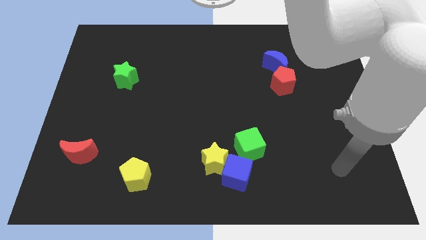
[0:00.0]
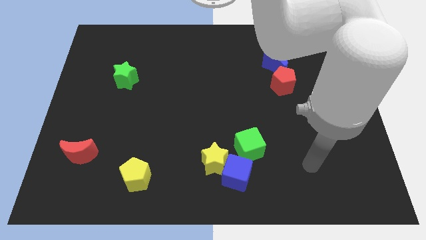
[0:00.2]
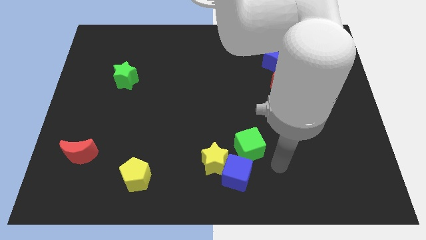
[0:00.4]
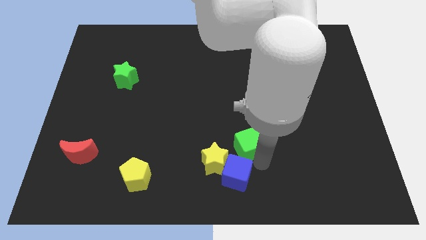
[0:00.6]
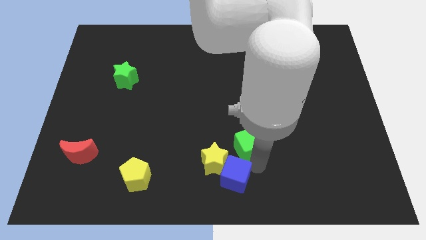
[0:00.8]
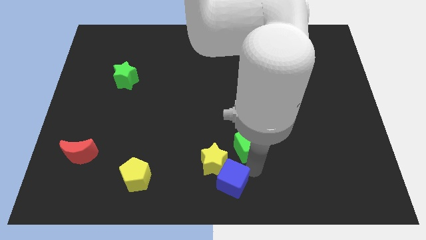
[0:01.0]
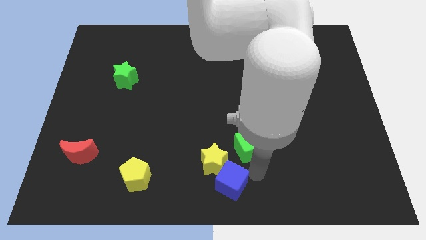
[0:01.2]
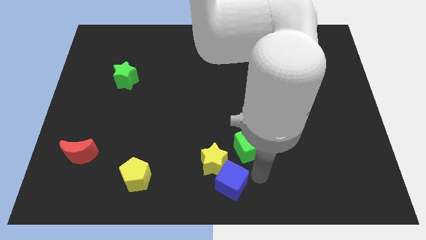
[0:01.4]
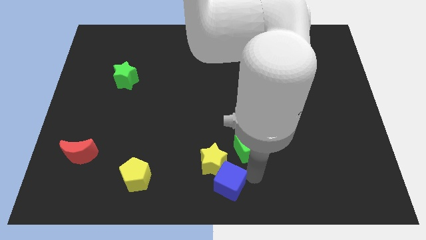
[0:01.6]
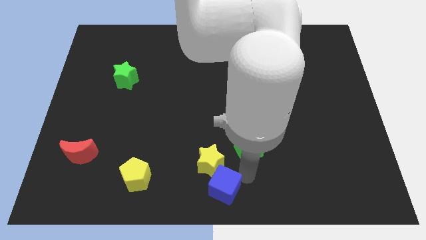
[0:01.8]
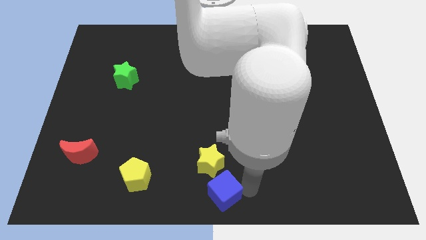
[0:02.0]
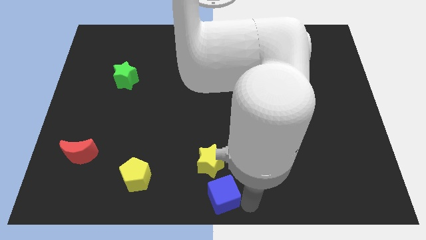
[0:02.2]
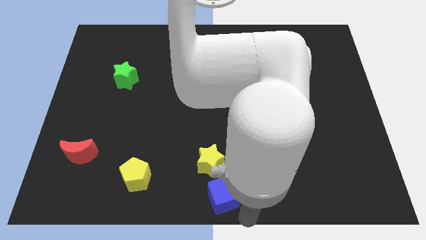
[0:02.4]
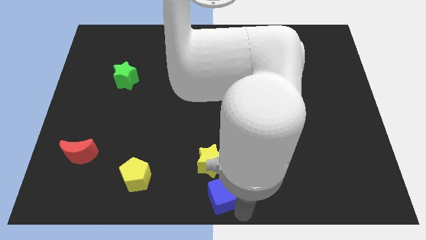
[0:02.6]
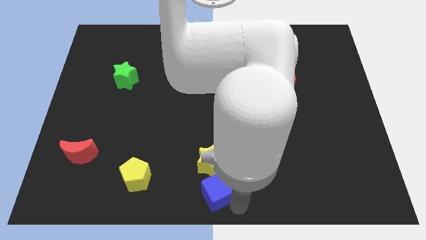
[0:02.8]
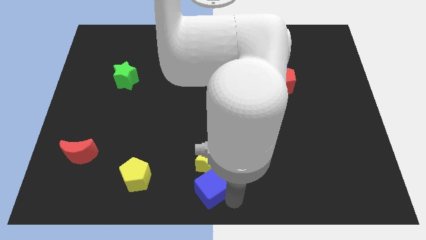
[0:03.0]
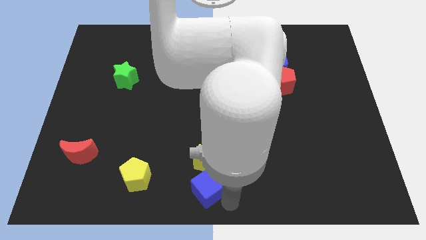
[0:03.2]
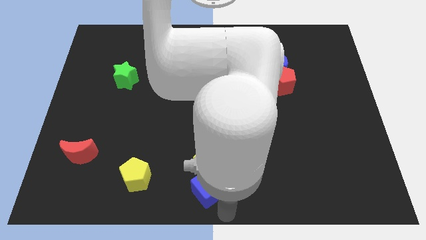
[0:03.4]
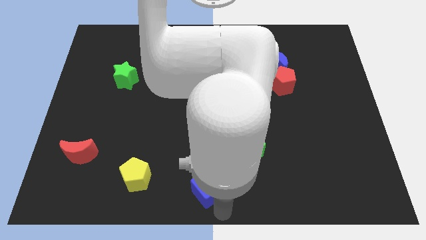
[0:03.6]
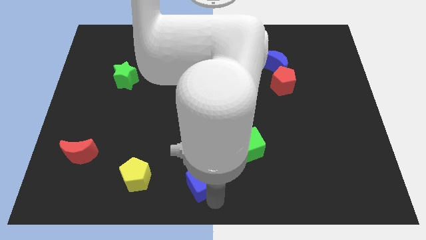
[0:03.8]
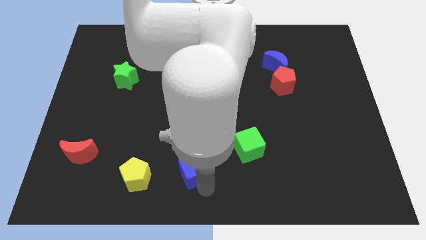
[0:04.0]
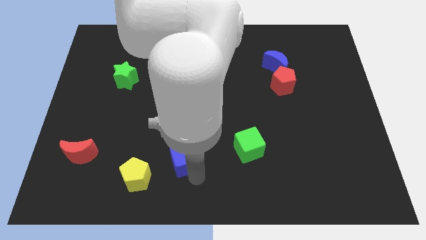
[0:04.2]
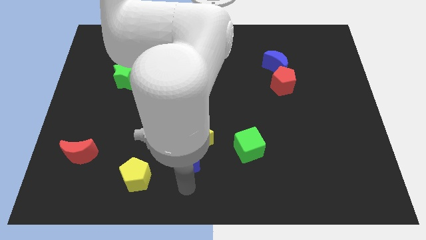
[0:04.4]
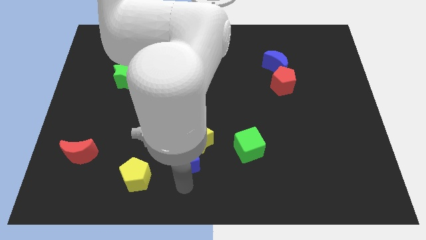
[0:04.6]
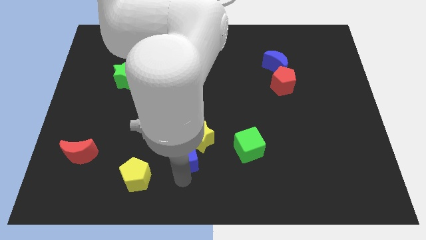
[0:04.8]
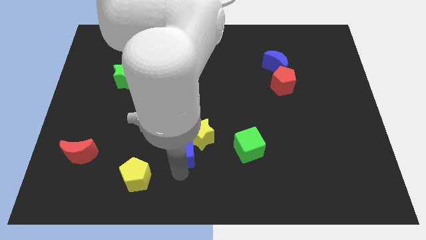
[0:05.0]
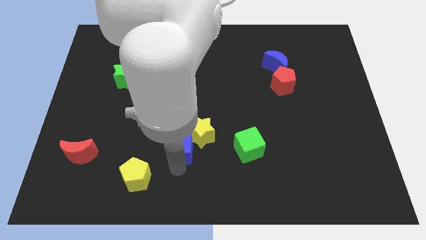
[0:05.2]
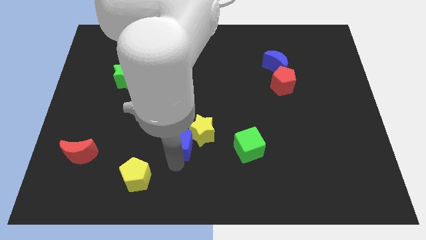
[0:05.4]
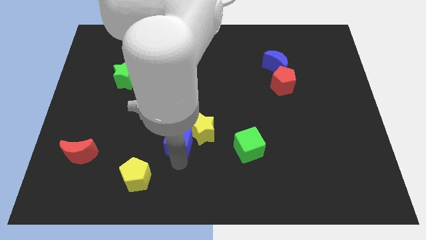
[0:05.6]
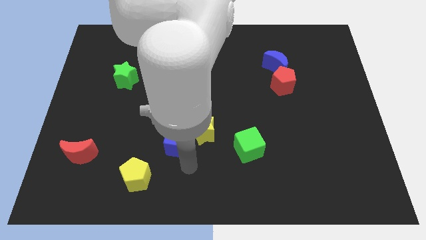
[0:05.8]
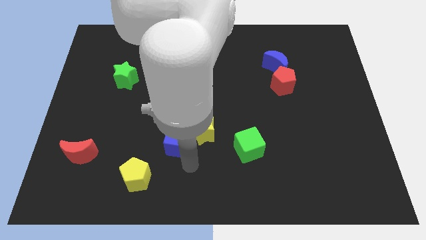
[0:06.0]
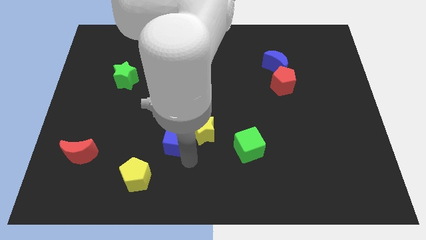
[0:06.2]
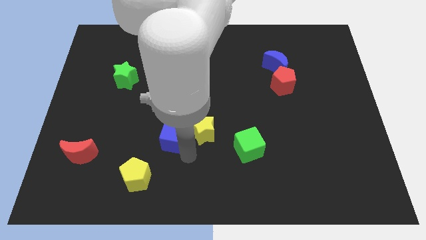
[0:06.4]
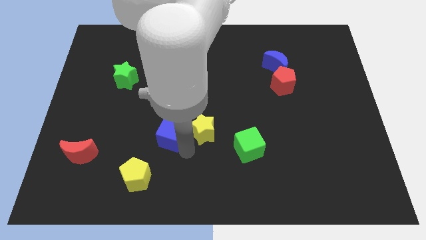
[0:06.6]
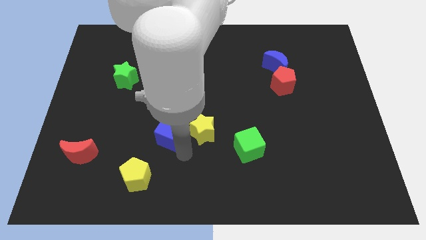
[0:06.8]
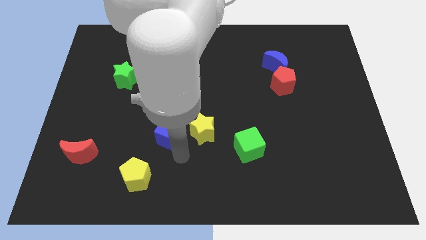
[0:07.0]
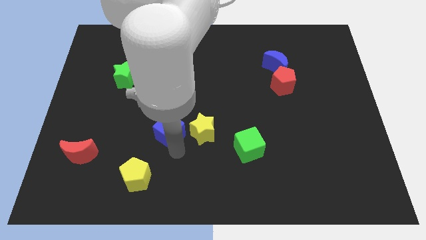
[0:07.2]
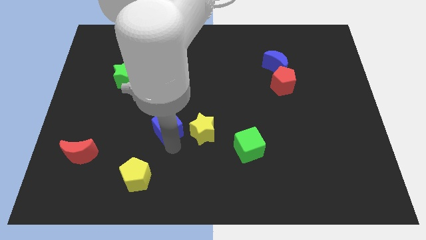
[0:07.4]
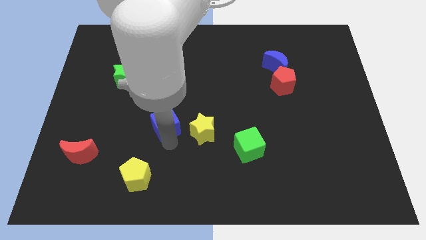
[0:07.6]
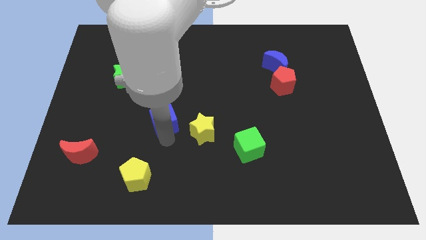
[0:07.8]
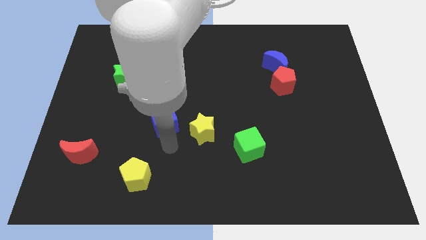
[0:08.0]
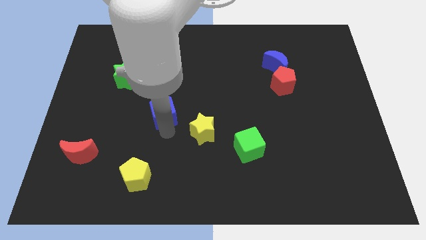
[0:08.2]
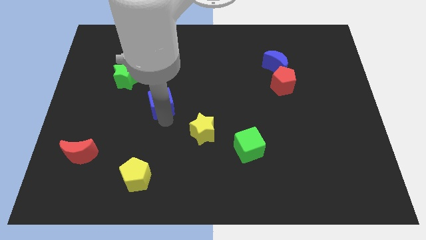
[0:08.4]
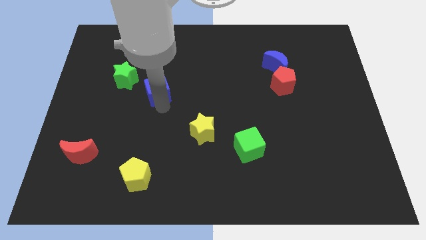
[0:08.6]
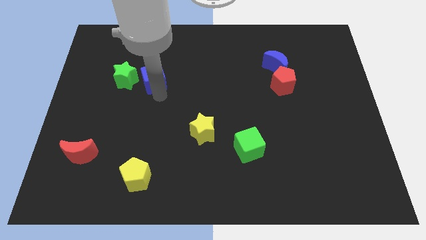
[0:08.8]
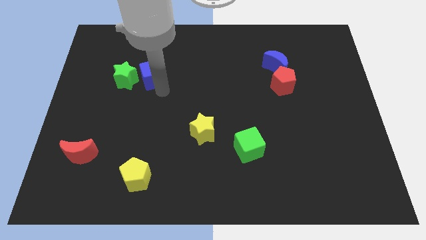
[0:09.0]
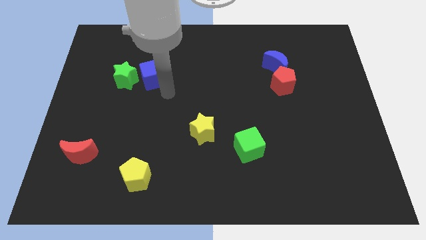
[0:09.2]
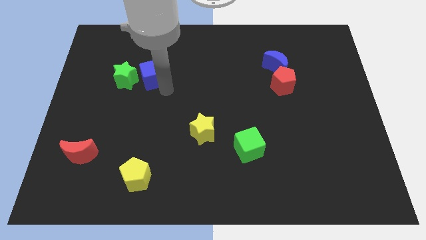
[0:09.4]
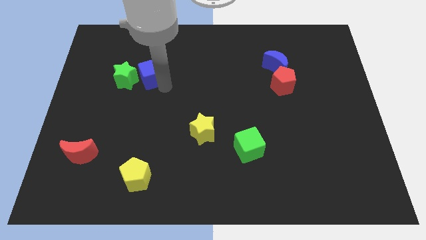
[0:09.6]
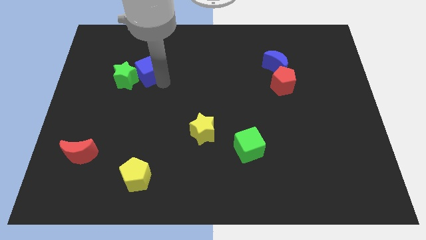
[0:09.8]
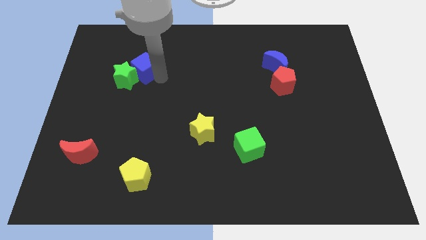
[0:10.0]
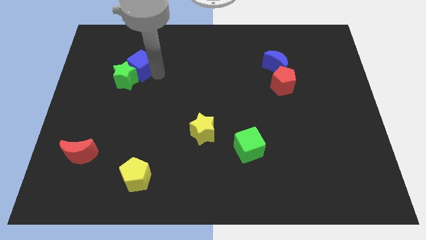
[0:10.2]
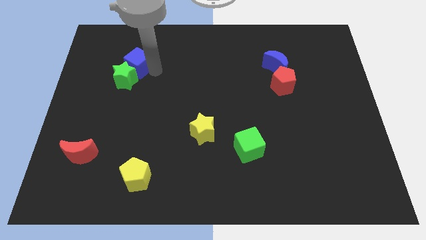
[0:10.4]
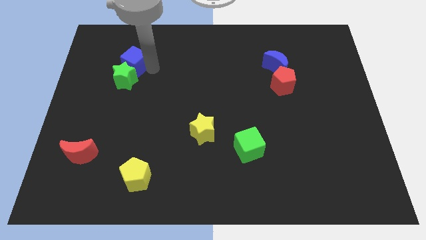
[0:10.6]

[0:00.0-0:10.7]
push the blue cube to the top left of the green star

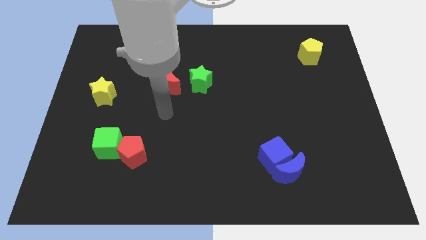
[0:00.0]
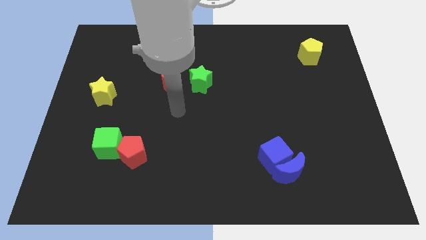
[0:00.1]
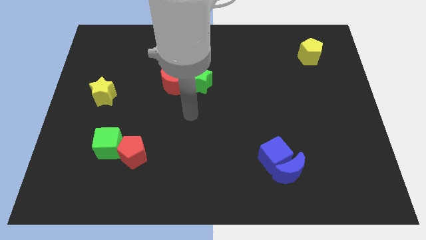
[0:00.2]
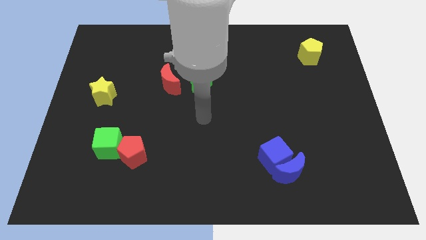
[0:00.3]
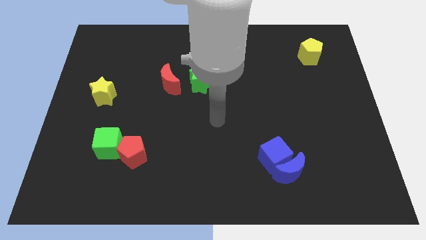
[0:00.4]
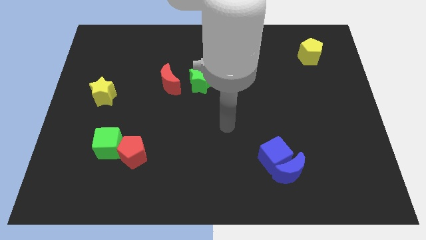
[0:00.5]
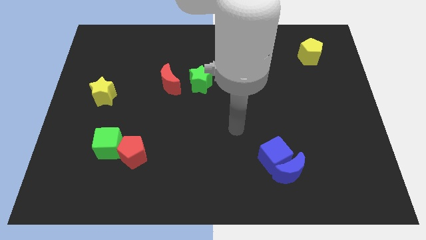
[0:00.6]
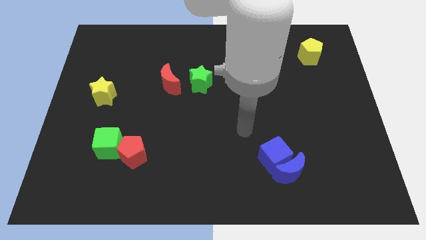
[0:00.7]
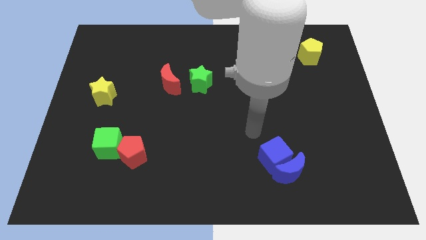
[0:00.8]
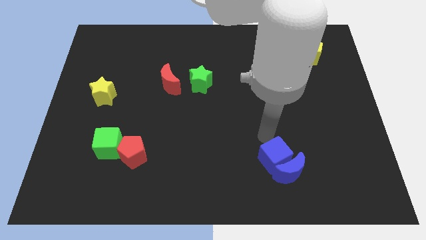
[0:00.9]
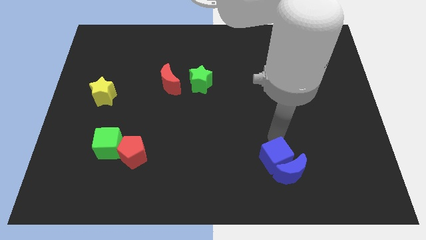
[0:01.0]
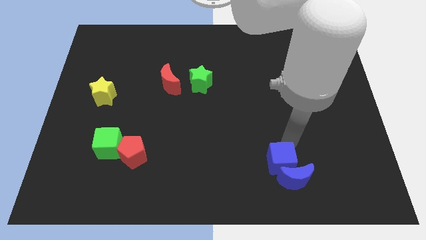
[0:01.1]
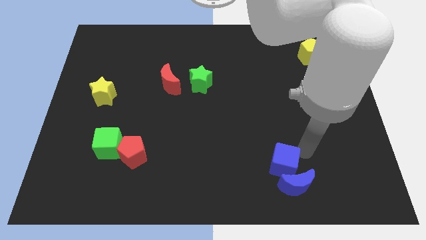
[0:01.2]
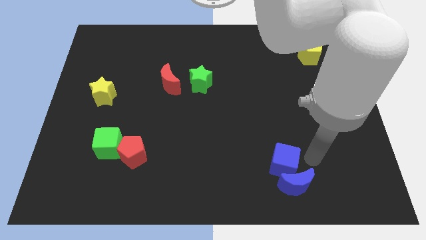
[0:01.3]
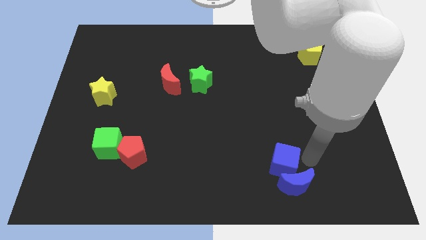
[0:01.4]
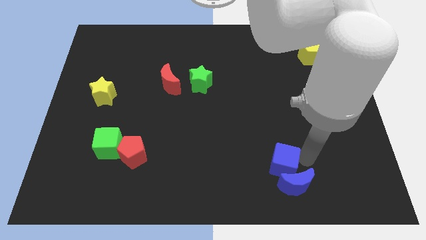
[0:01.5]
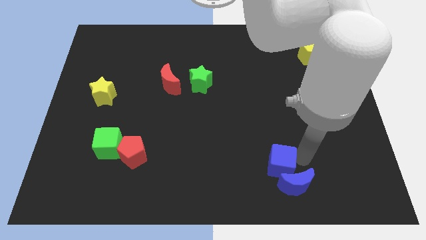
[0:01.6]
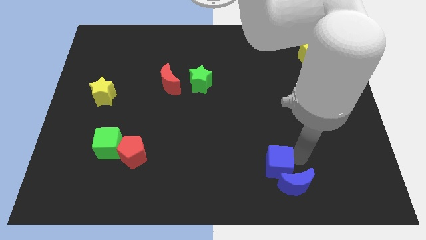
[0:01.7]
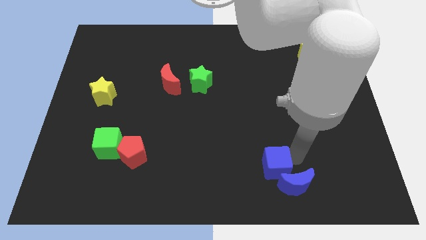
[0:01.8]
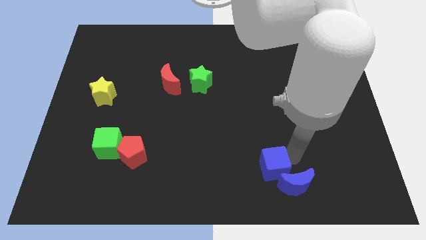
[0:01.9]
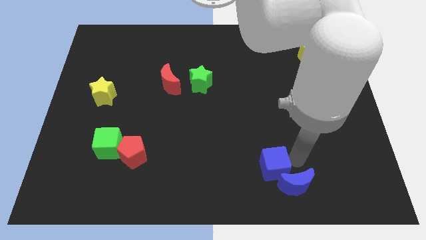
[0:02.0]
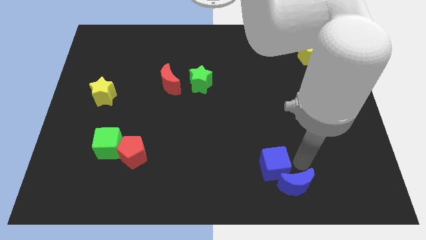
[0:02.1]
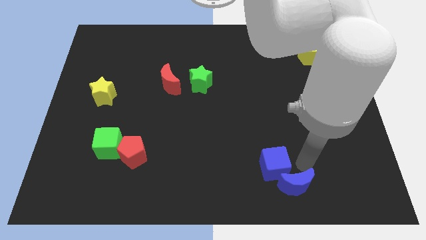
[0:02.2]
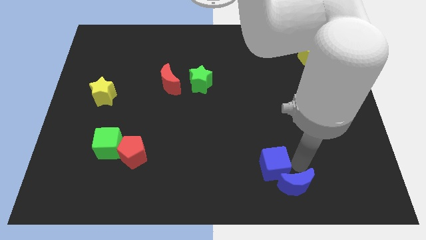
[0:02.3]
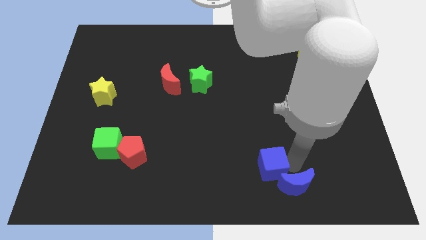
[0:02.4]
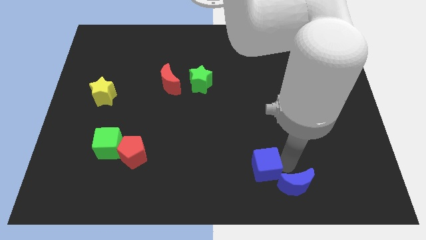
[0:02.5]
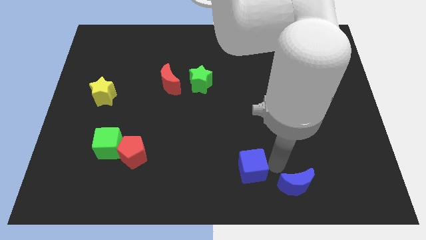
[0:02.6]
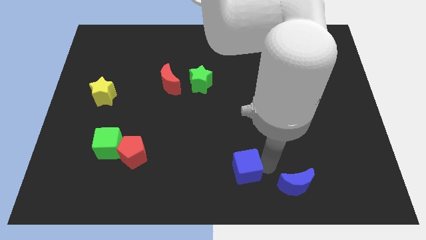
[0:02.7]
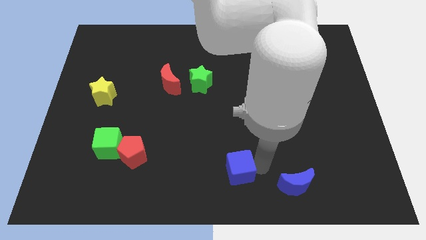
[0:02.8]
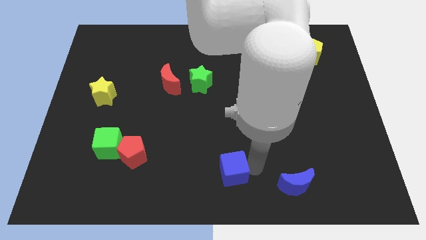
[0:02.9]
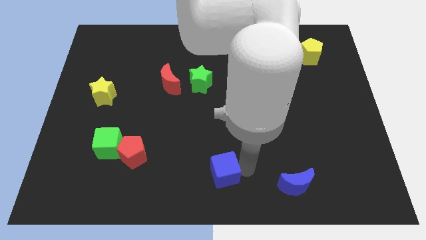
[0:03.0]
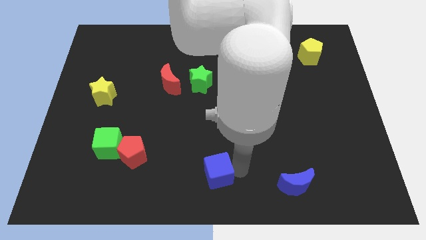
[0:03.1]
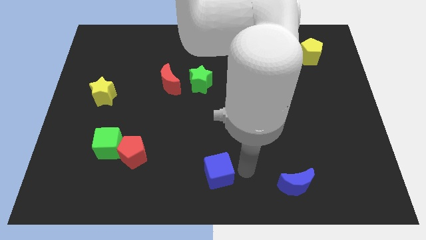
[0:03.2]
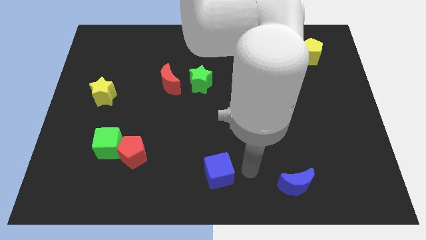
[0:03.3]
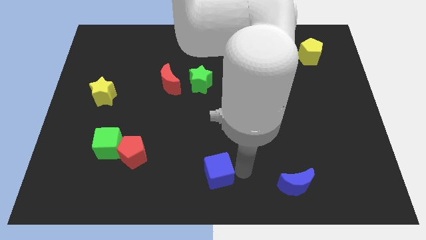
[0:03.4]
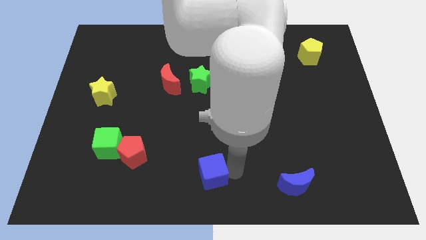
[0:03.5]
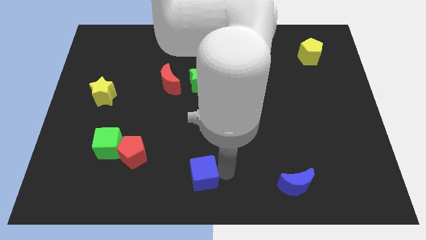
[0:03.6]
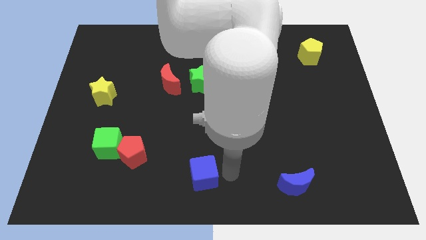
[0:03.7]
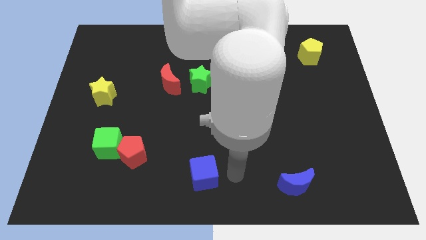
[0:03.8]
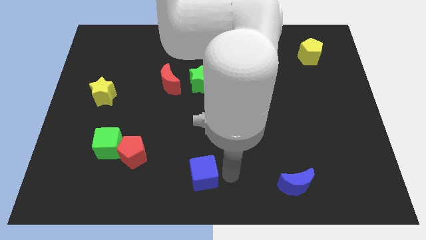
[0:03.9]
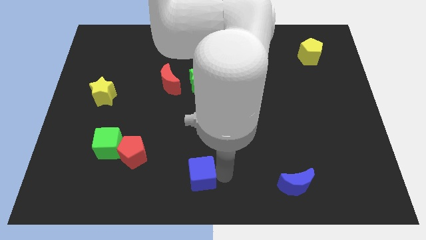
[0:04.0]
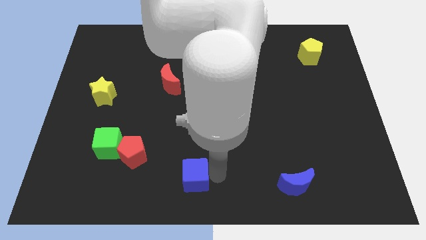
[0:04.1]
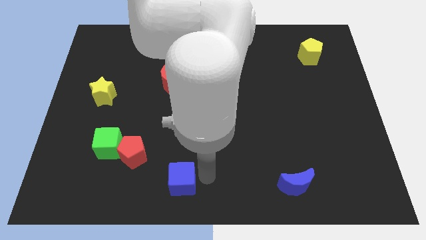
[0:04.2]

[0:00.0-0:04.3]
put the blue cube to the bottom right side of the red pentagon
